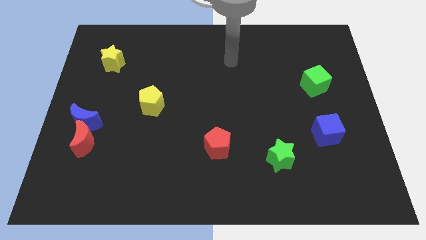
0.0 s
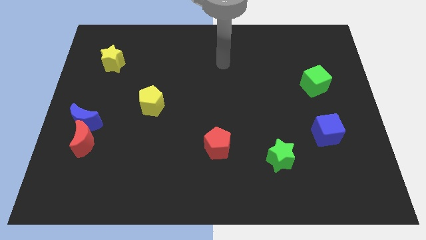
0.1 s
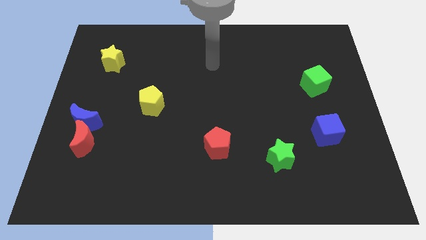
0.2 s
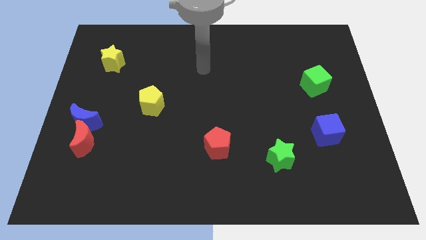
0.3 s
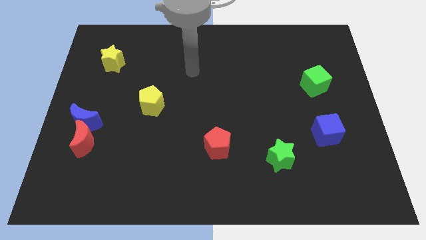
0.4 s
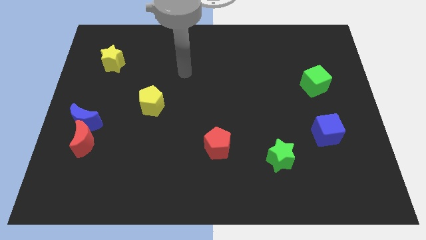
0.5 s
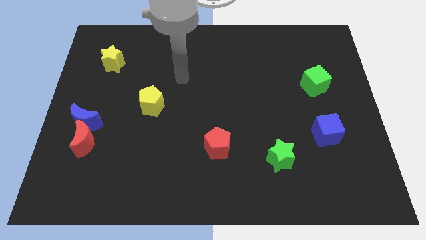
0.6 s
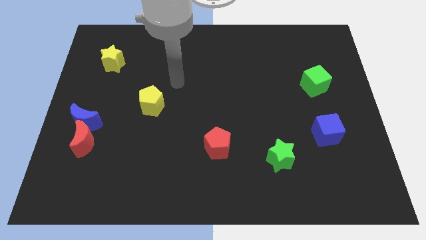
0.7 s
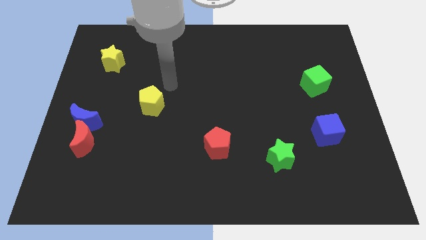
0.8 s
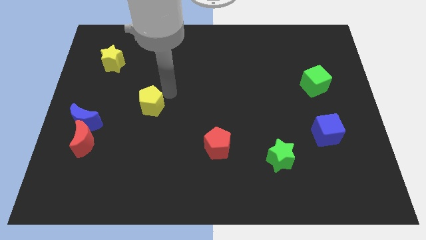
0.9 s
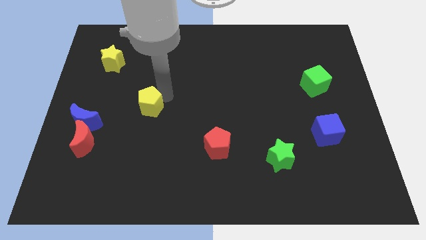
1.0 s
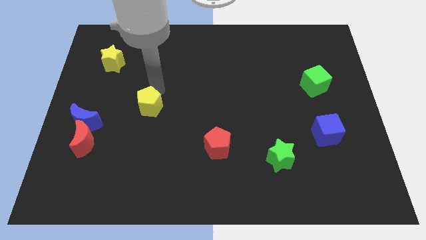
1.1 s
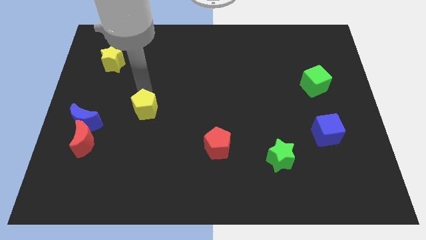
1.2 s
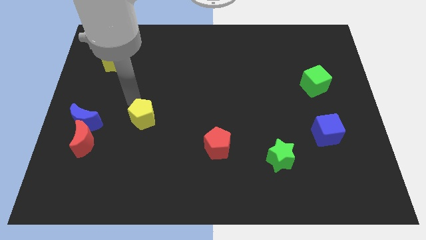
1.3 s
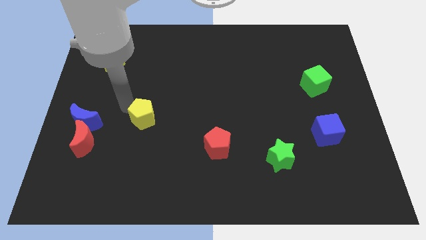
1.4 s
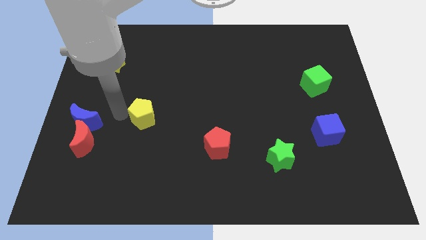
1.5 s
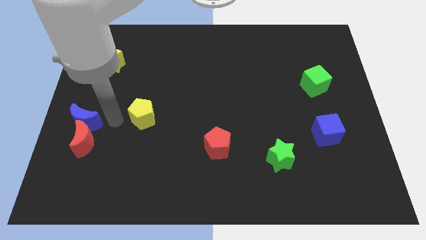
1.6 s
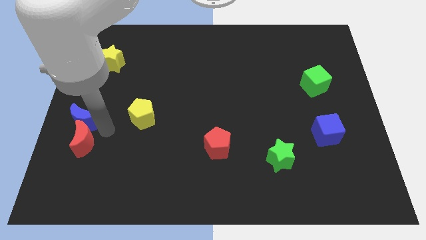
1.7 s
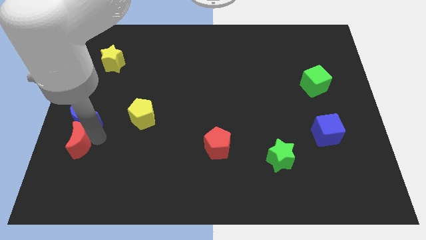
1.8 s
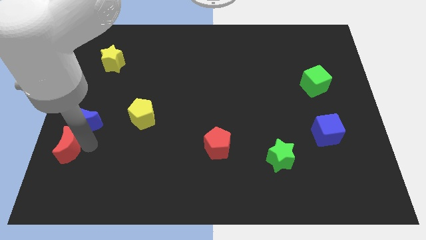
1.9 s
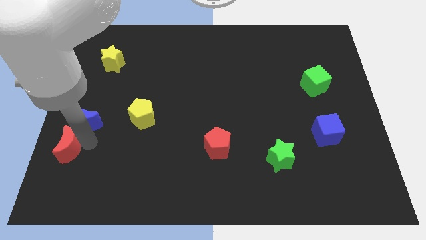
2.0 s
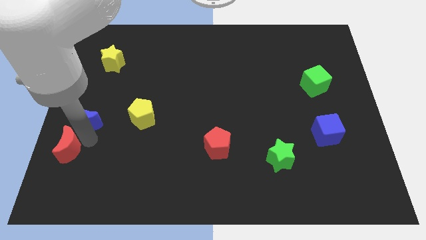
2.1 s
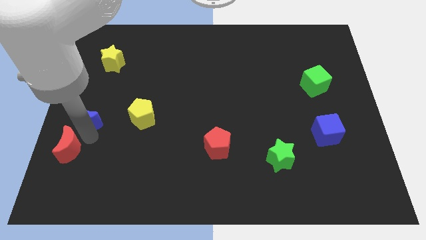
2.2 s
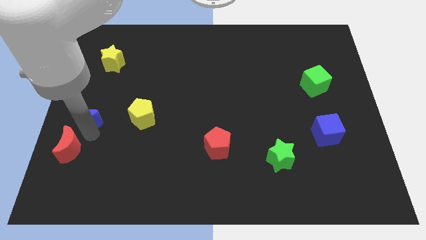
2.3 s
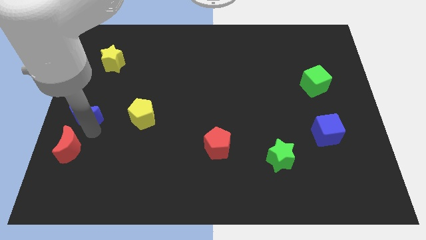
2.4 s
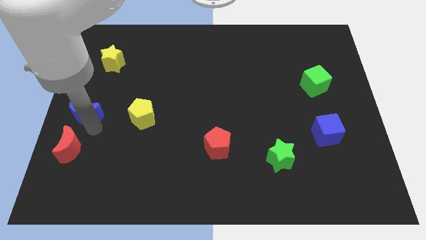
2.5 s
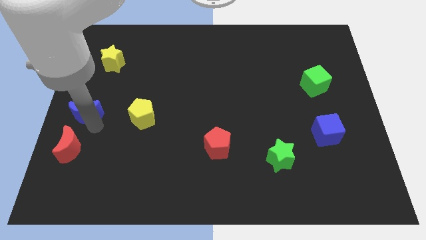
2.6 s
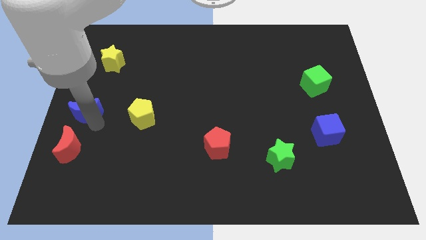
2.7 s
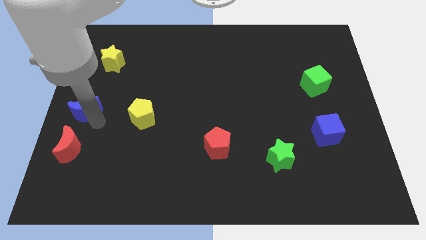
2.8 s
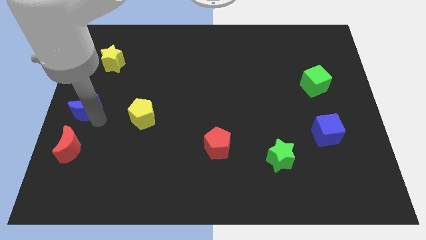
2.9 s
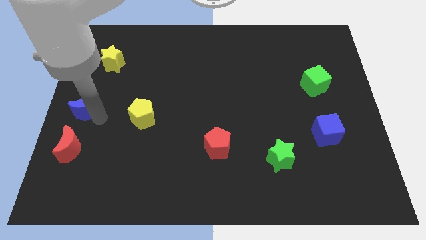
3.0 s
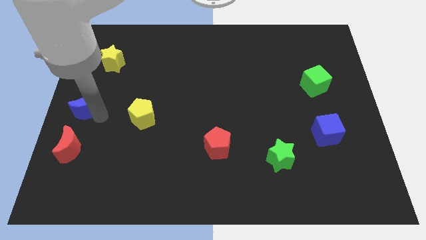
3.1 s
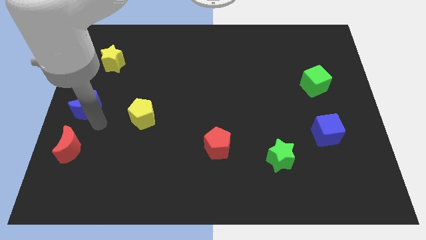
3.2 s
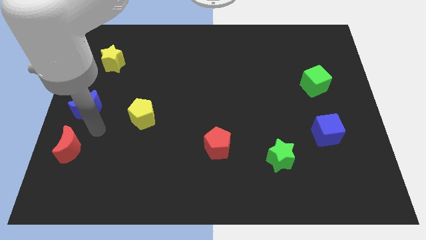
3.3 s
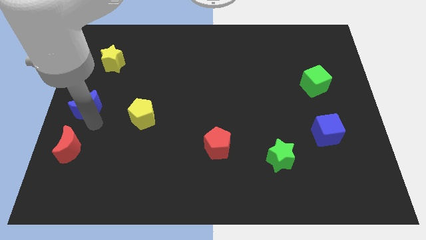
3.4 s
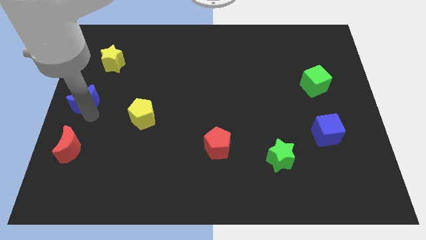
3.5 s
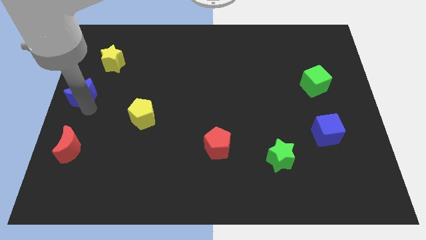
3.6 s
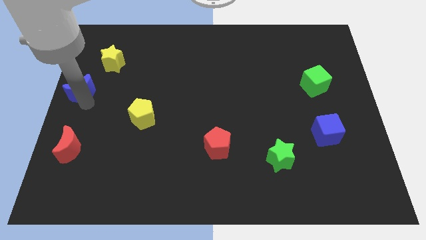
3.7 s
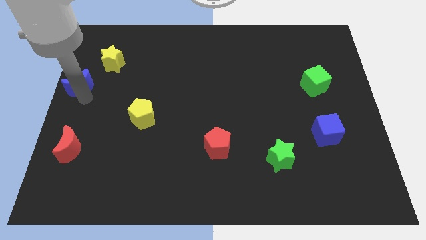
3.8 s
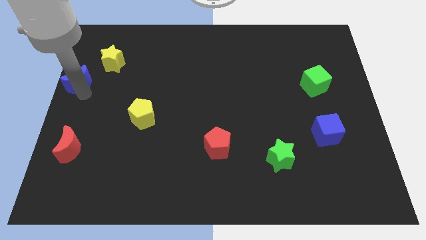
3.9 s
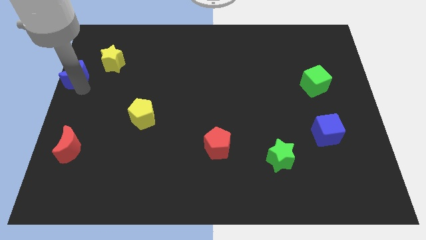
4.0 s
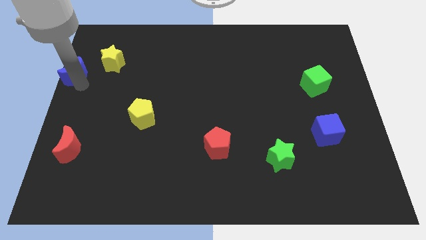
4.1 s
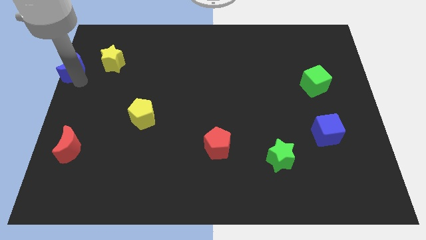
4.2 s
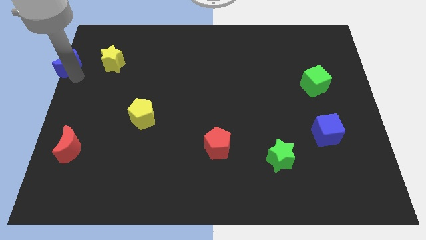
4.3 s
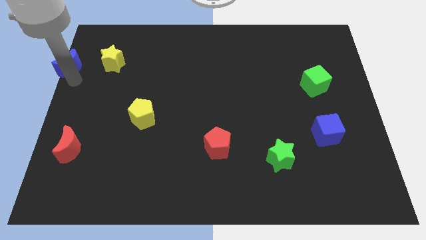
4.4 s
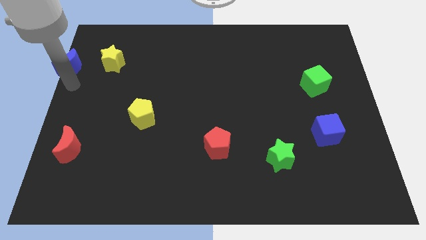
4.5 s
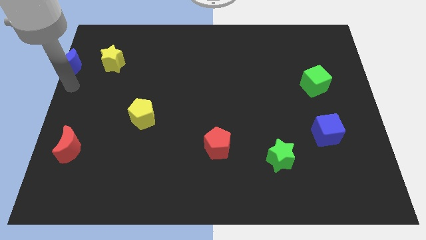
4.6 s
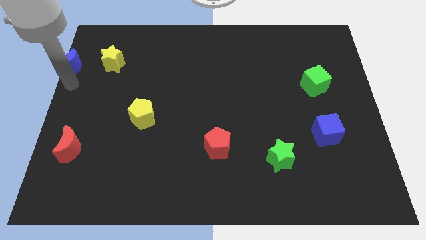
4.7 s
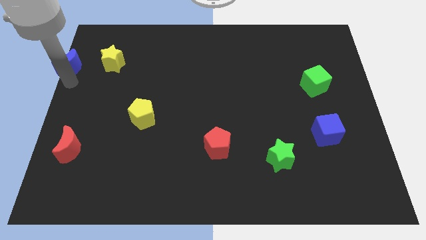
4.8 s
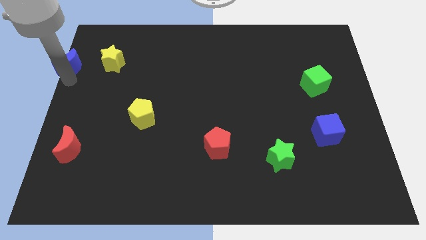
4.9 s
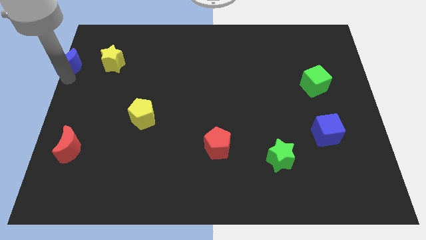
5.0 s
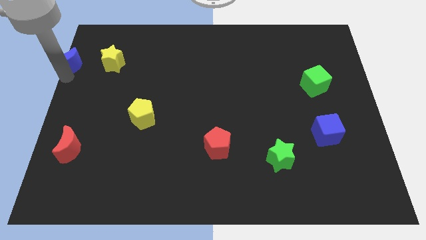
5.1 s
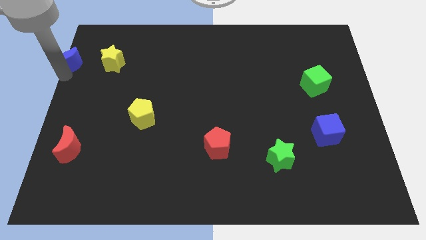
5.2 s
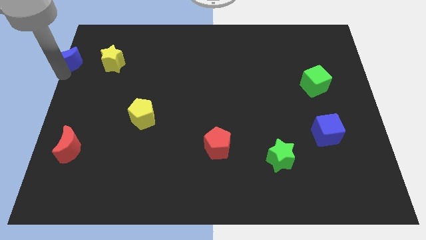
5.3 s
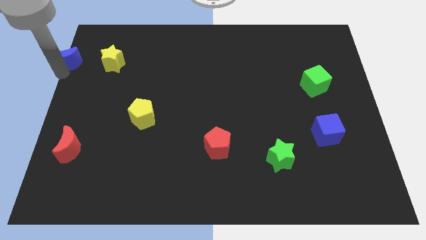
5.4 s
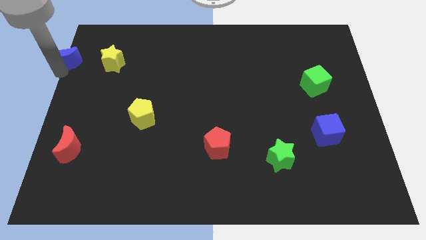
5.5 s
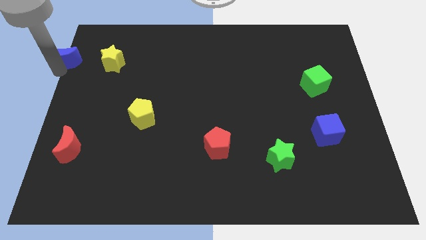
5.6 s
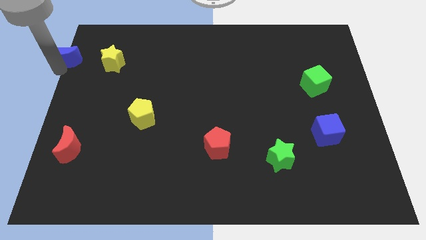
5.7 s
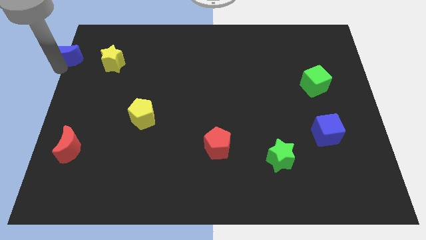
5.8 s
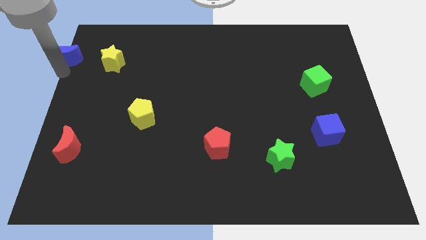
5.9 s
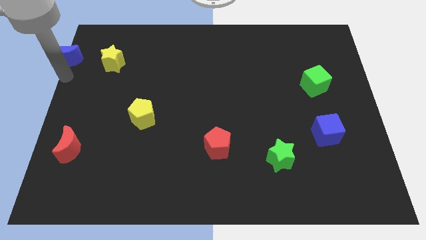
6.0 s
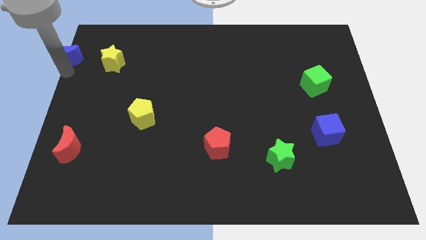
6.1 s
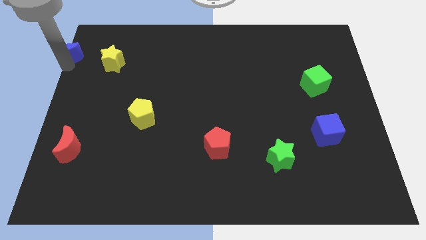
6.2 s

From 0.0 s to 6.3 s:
put the blue moon to the upper left corner
